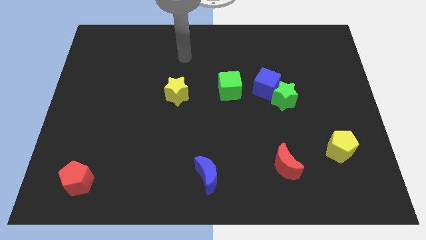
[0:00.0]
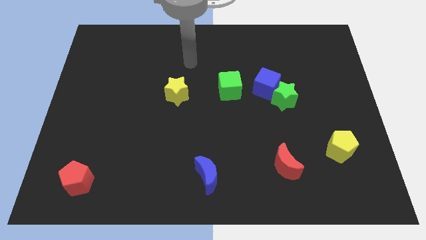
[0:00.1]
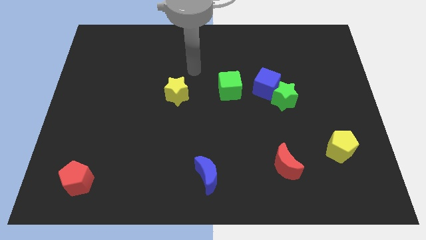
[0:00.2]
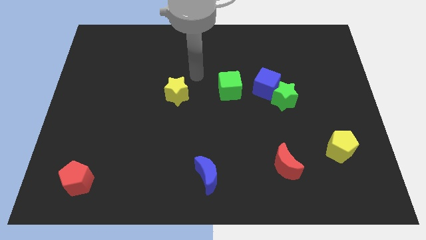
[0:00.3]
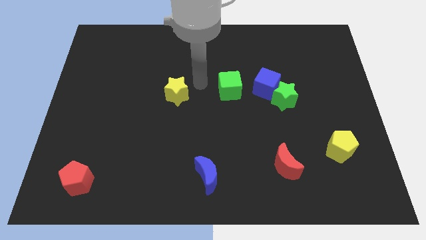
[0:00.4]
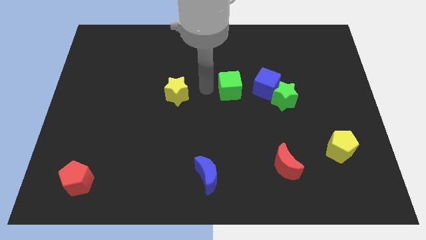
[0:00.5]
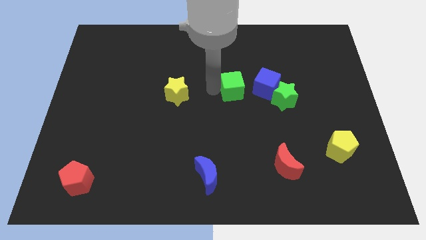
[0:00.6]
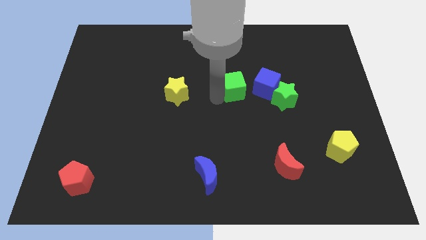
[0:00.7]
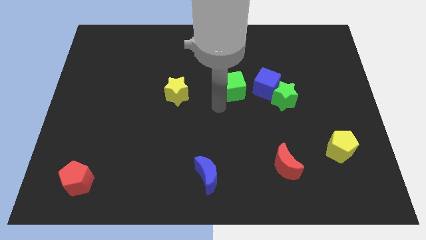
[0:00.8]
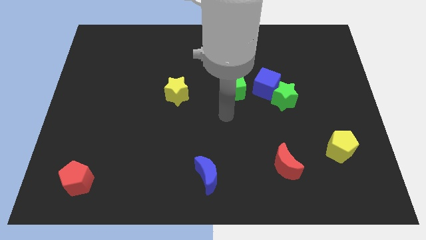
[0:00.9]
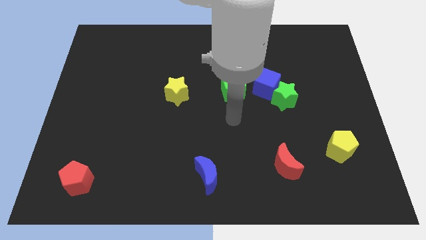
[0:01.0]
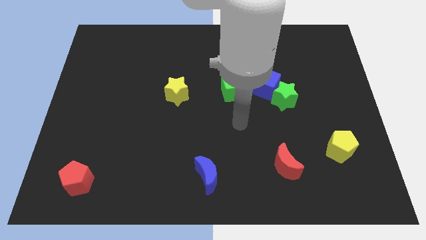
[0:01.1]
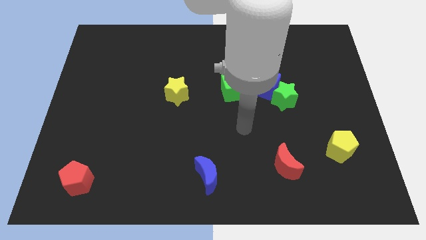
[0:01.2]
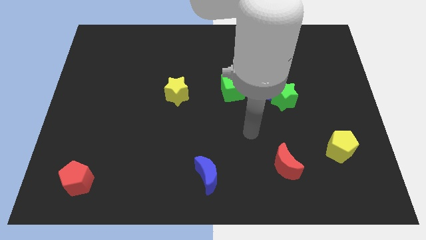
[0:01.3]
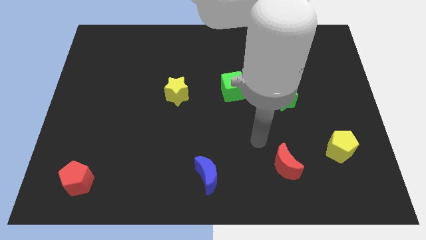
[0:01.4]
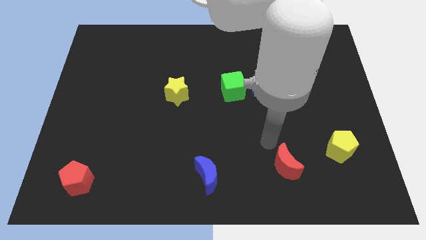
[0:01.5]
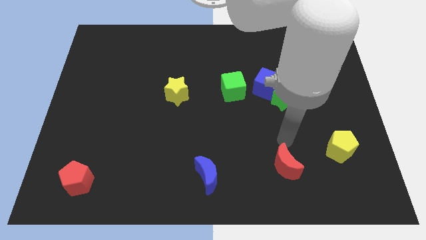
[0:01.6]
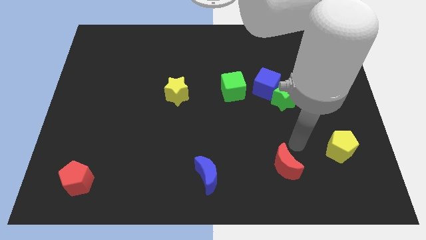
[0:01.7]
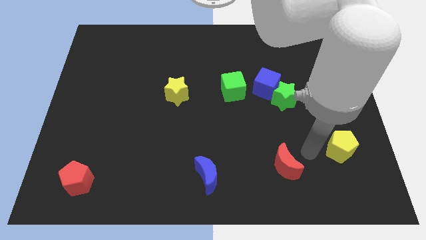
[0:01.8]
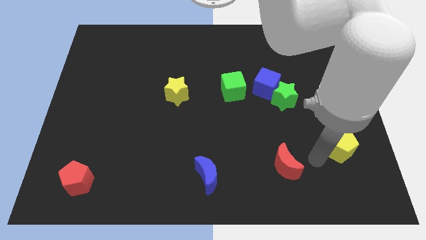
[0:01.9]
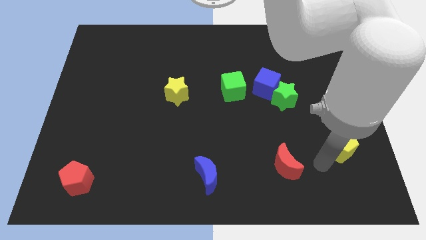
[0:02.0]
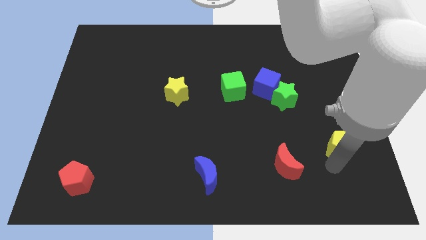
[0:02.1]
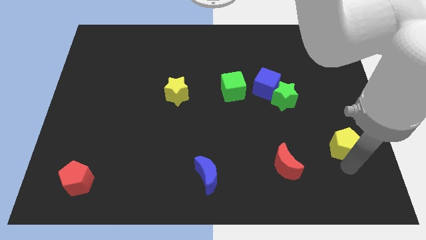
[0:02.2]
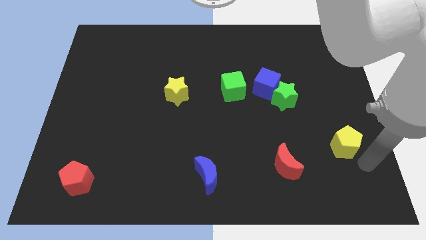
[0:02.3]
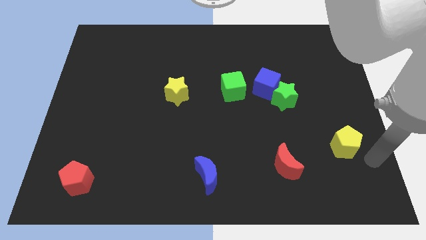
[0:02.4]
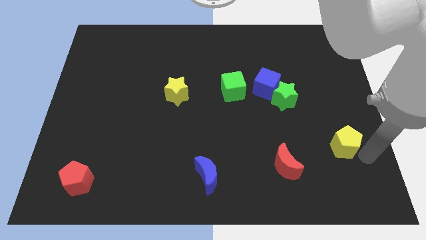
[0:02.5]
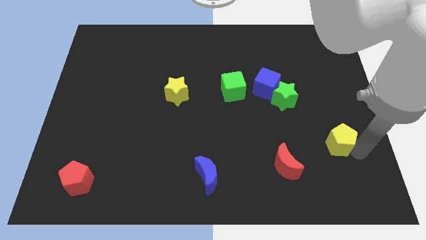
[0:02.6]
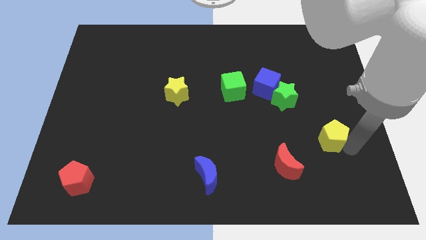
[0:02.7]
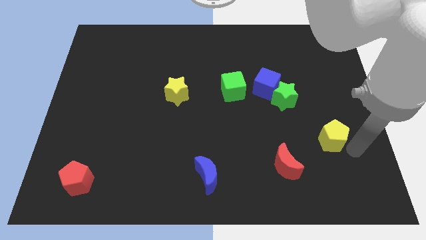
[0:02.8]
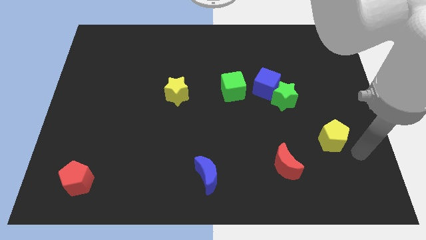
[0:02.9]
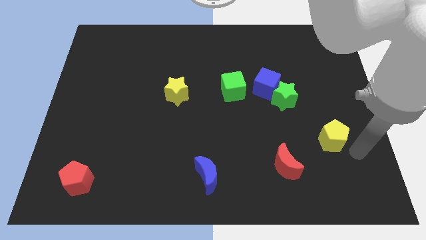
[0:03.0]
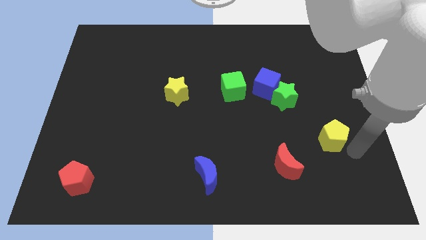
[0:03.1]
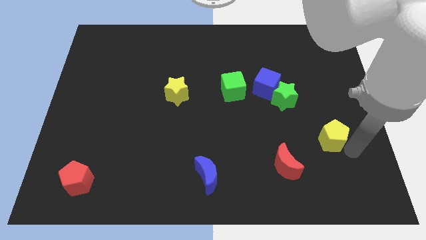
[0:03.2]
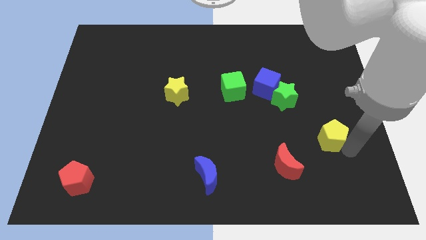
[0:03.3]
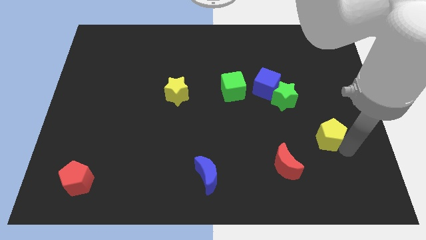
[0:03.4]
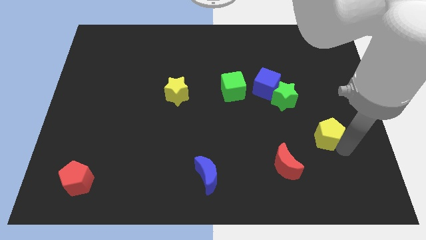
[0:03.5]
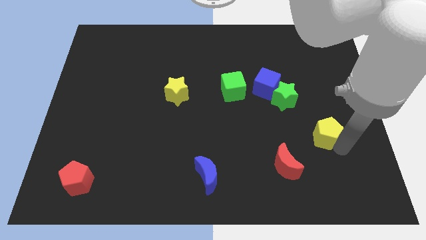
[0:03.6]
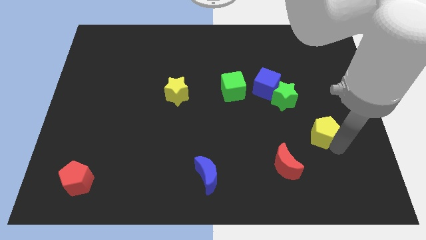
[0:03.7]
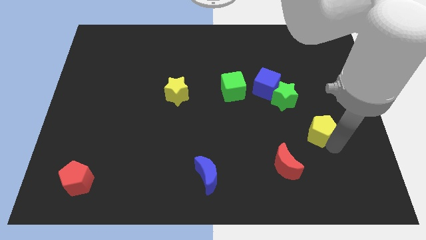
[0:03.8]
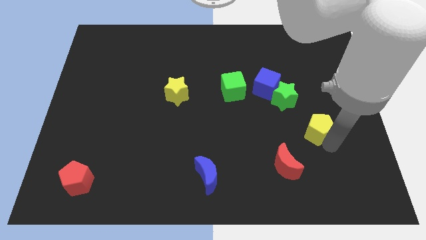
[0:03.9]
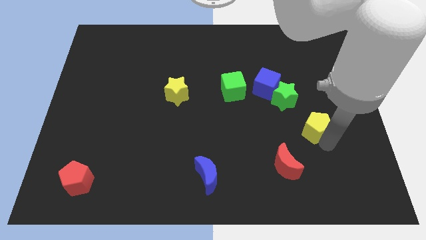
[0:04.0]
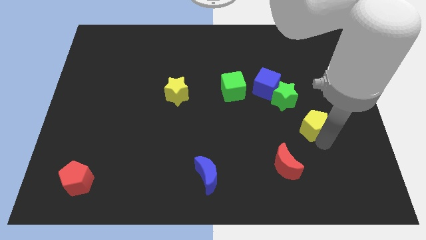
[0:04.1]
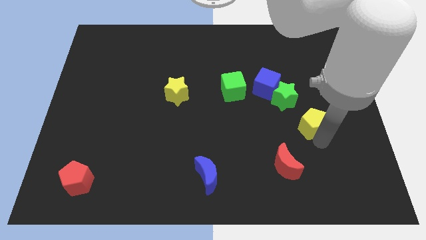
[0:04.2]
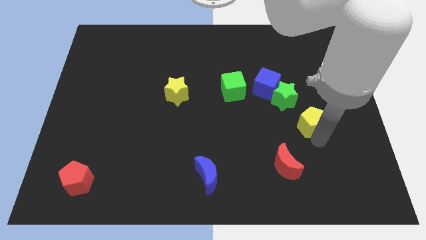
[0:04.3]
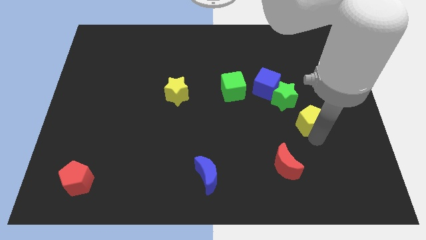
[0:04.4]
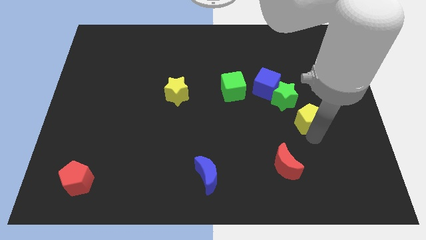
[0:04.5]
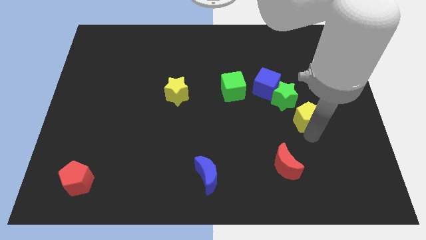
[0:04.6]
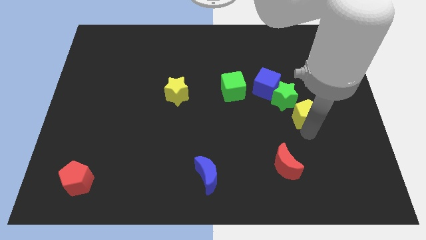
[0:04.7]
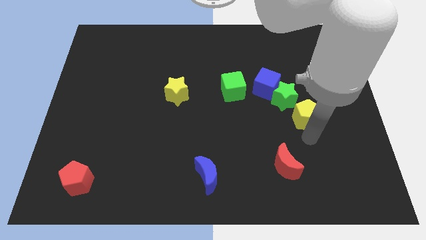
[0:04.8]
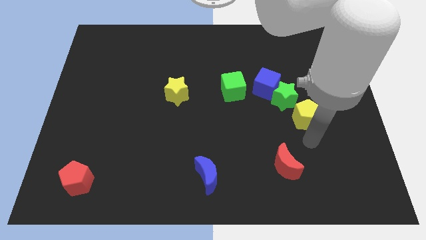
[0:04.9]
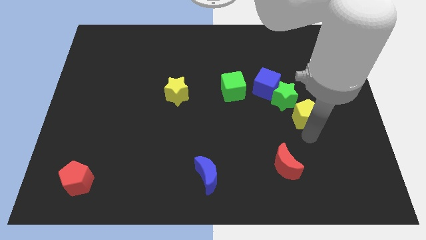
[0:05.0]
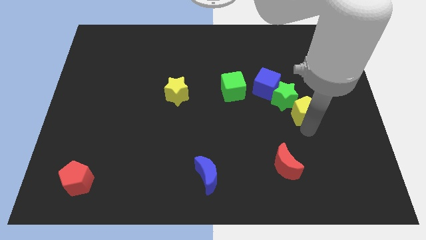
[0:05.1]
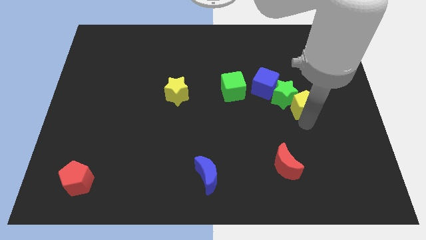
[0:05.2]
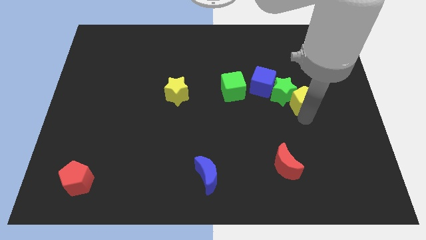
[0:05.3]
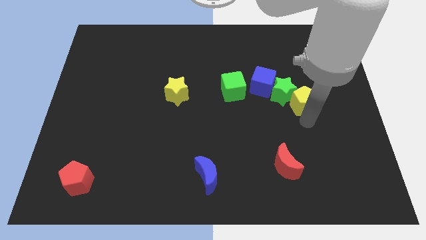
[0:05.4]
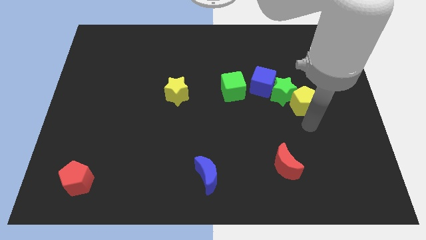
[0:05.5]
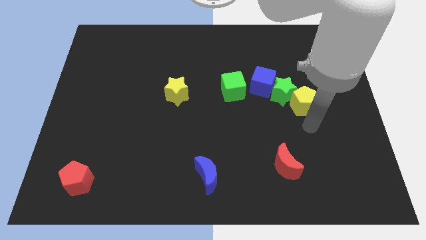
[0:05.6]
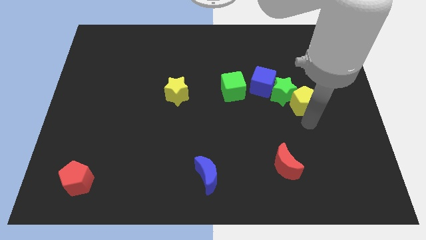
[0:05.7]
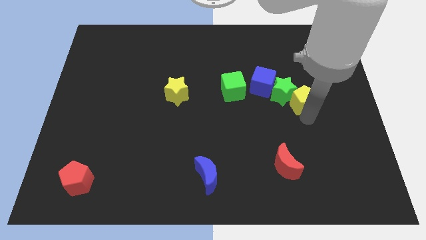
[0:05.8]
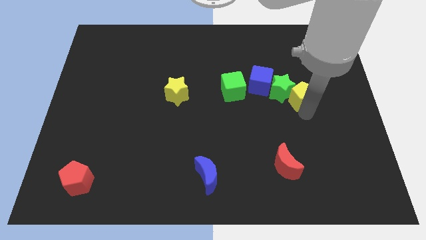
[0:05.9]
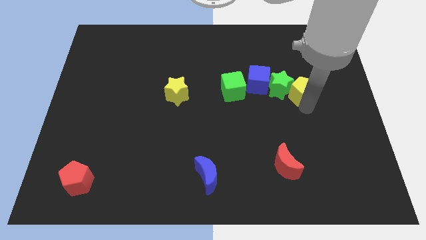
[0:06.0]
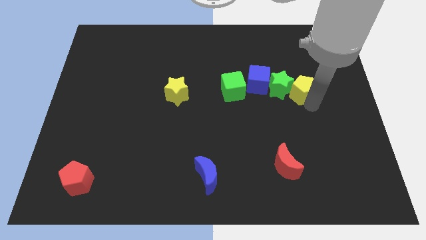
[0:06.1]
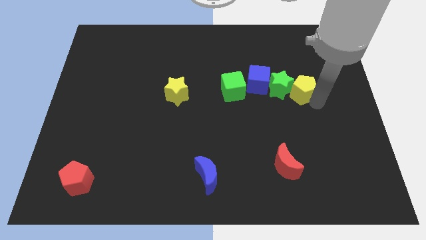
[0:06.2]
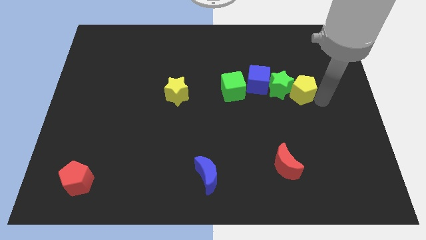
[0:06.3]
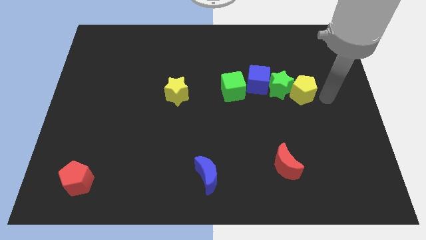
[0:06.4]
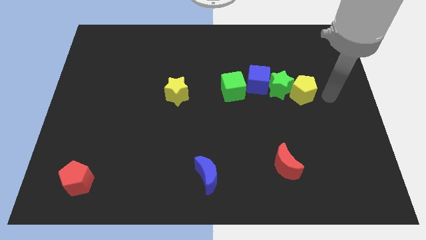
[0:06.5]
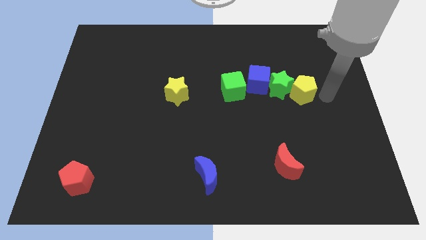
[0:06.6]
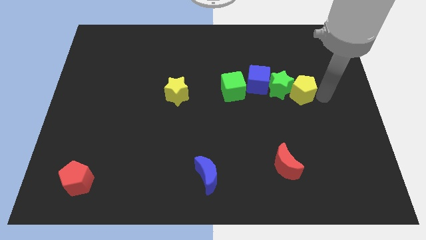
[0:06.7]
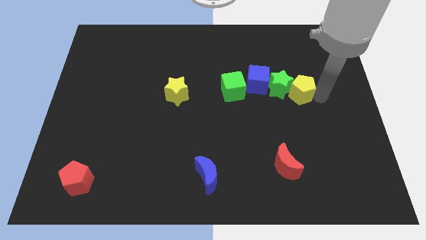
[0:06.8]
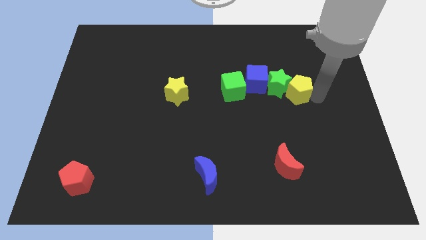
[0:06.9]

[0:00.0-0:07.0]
slide the yellow pentagon to the right of the green cube

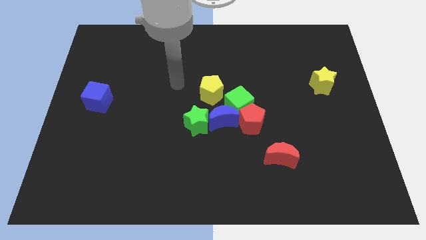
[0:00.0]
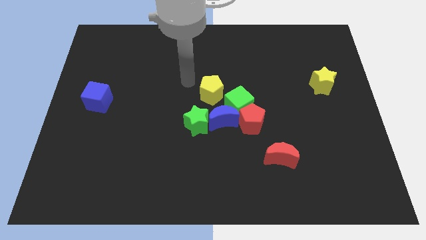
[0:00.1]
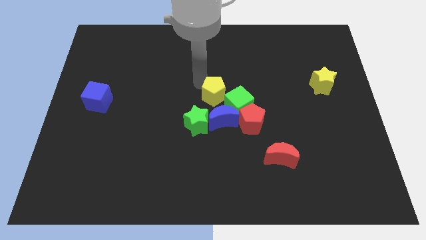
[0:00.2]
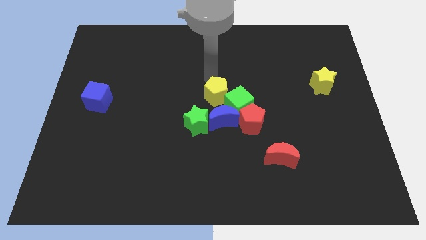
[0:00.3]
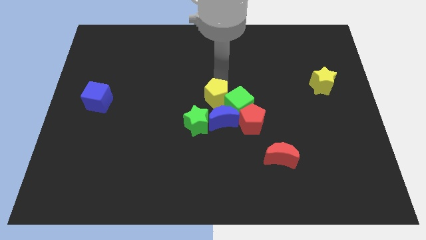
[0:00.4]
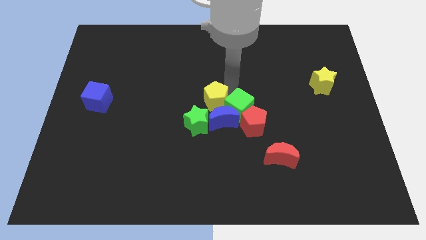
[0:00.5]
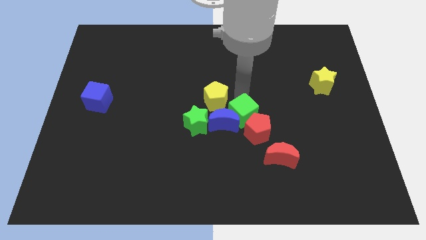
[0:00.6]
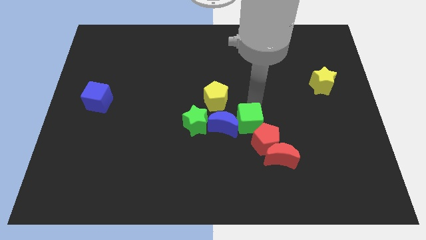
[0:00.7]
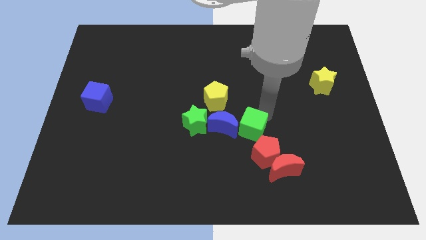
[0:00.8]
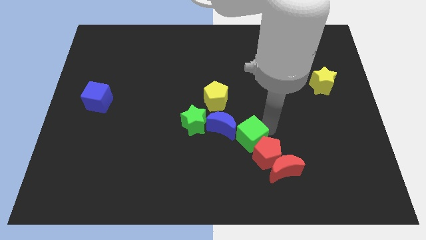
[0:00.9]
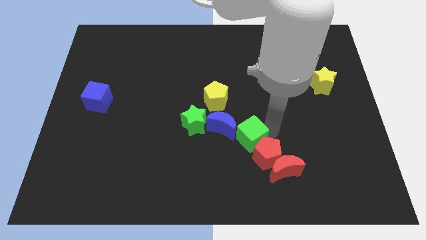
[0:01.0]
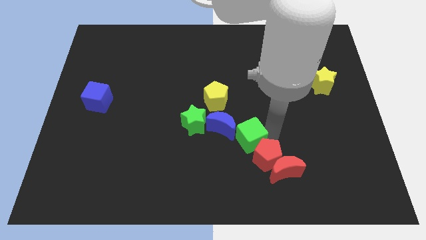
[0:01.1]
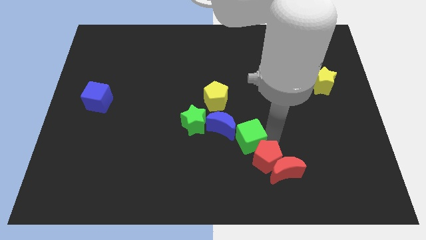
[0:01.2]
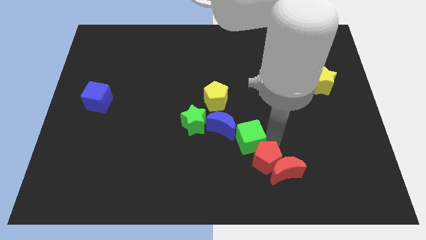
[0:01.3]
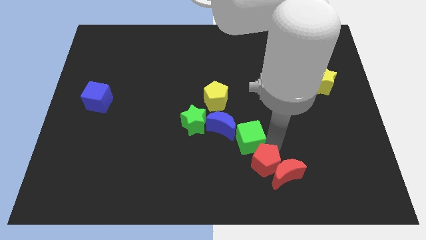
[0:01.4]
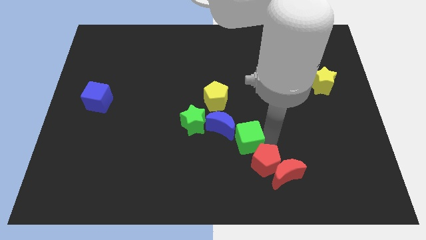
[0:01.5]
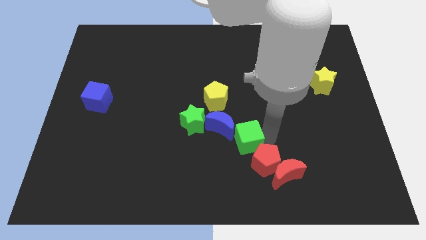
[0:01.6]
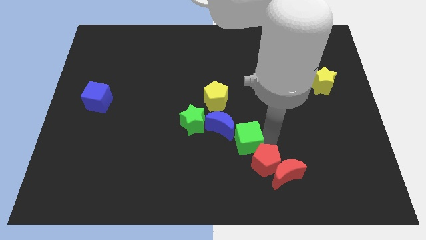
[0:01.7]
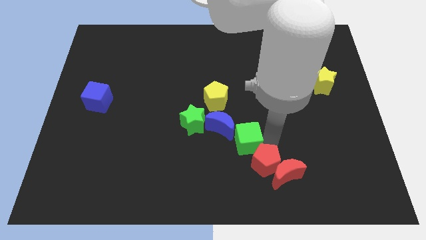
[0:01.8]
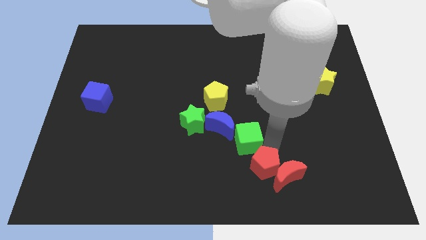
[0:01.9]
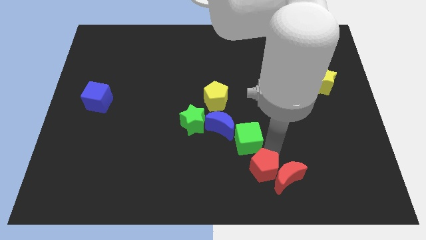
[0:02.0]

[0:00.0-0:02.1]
push the red pentagon diagonally down and to the left of the red moon
